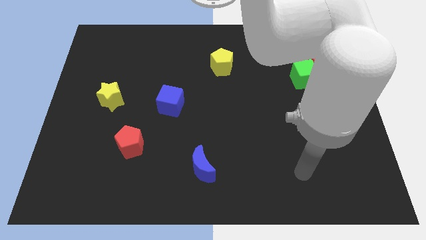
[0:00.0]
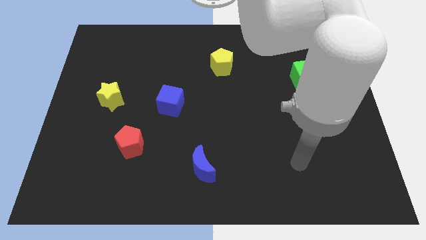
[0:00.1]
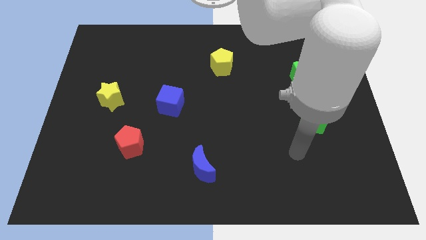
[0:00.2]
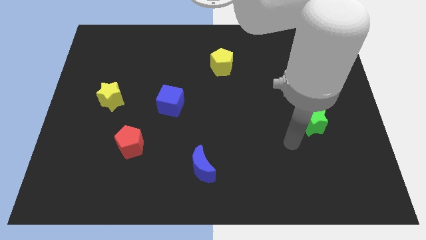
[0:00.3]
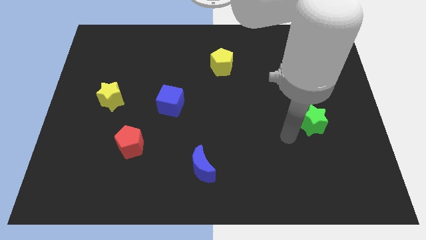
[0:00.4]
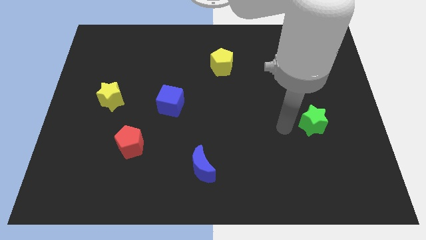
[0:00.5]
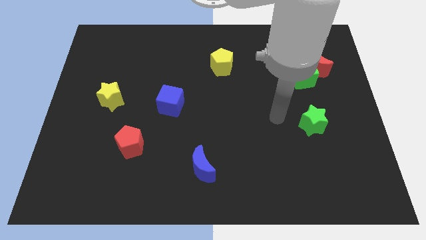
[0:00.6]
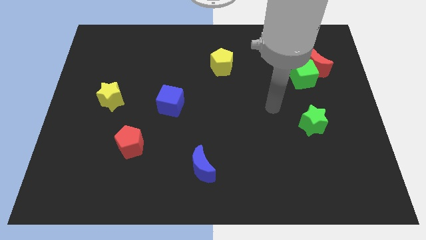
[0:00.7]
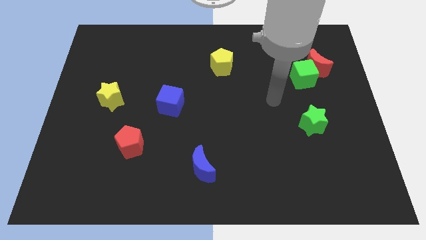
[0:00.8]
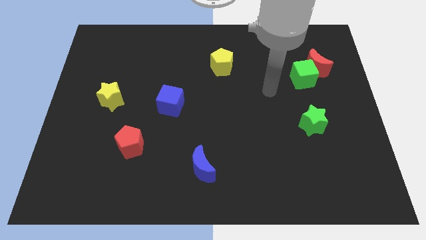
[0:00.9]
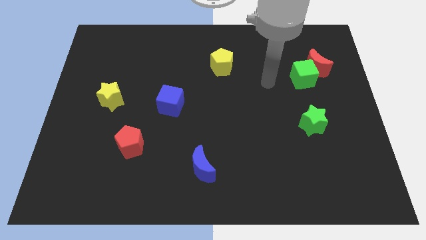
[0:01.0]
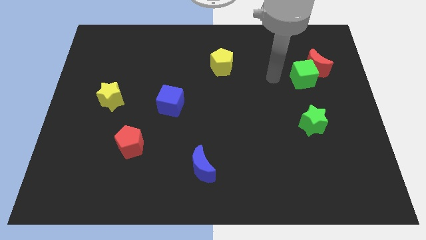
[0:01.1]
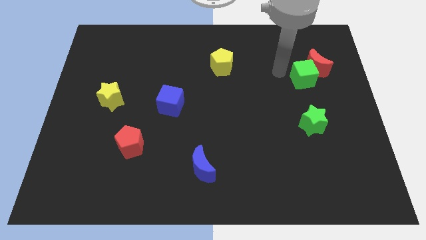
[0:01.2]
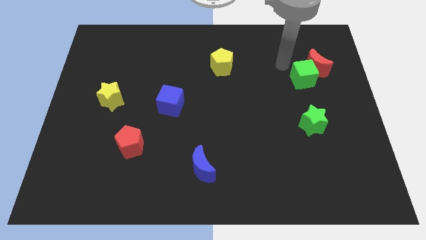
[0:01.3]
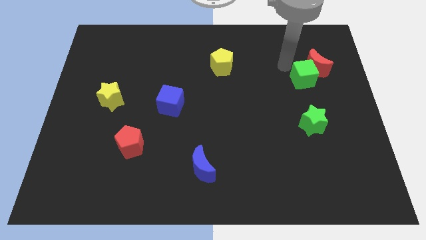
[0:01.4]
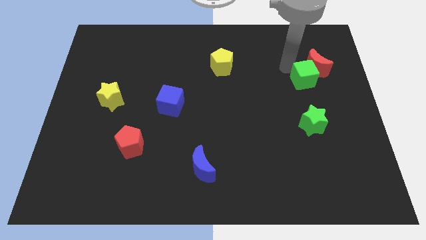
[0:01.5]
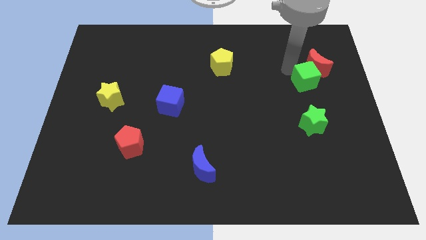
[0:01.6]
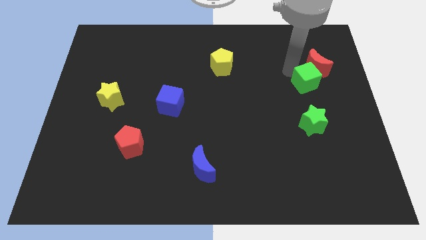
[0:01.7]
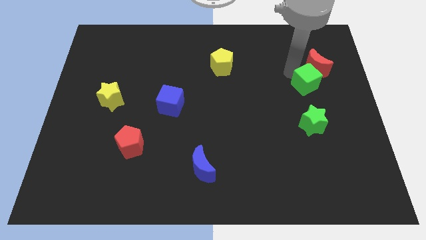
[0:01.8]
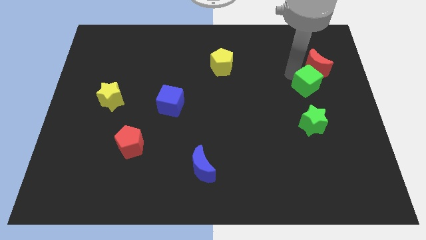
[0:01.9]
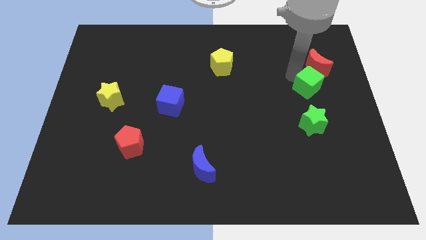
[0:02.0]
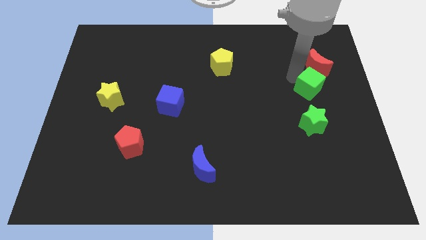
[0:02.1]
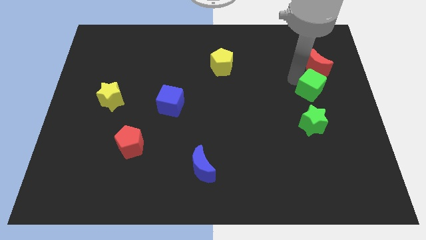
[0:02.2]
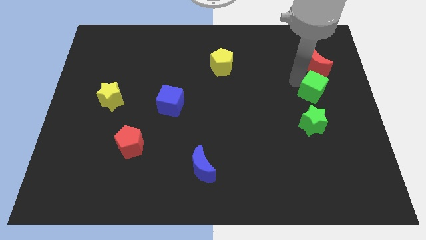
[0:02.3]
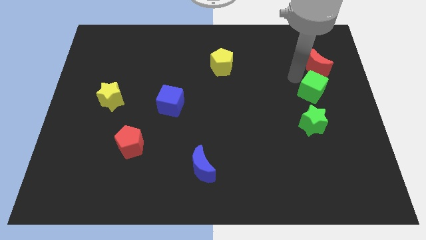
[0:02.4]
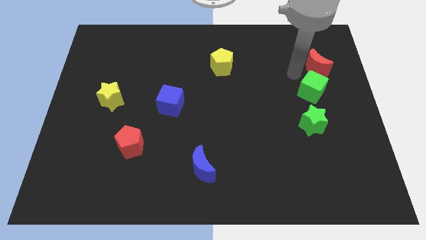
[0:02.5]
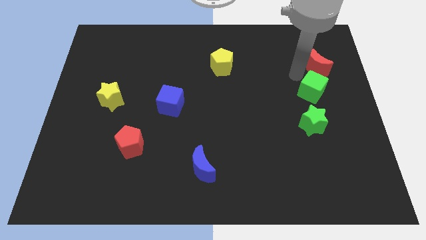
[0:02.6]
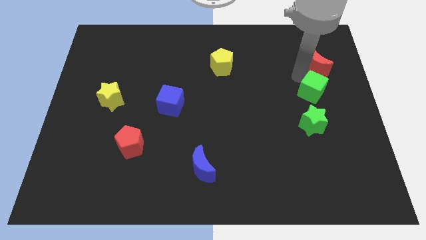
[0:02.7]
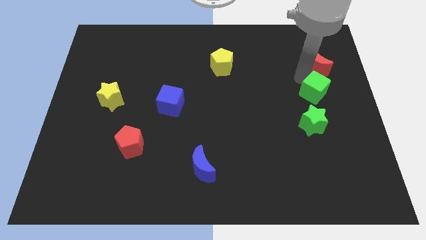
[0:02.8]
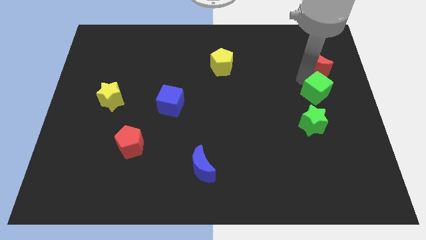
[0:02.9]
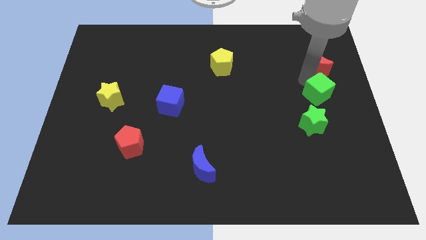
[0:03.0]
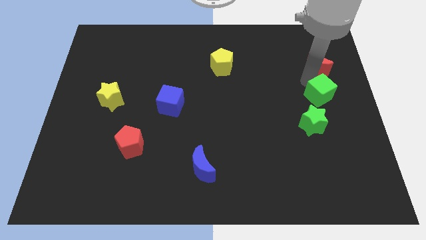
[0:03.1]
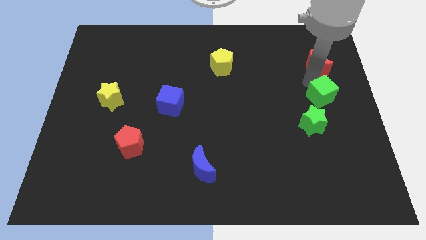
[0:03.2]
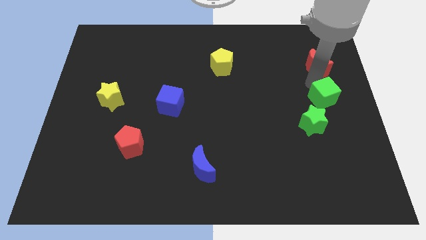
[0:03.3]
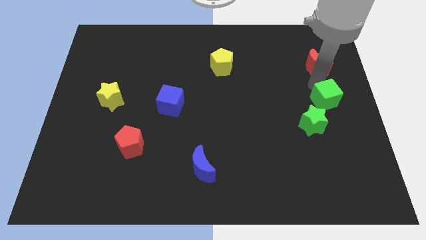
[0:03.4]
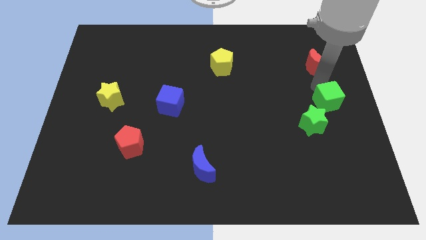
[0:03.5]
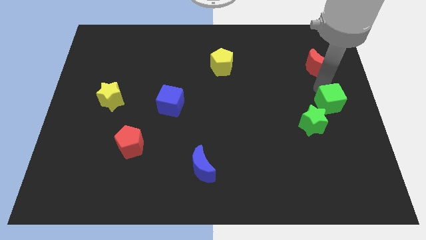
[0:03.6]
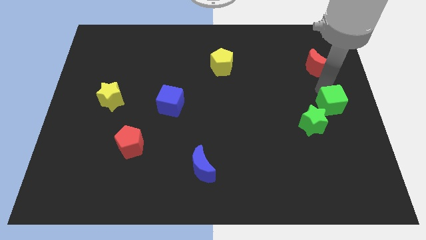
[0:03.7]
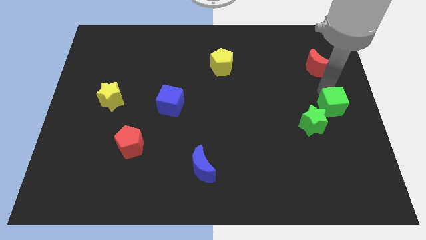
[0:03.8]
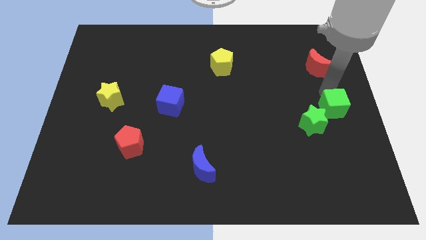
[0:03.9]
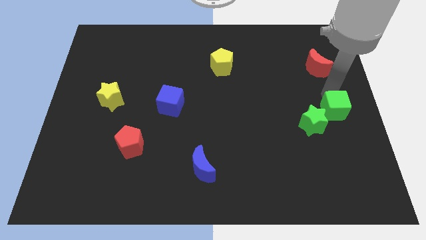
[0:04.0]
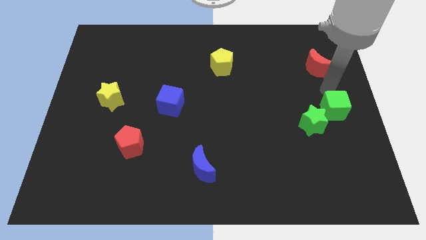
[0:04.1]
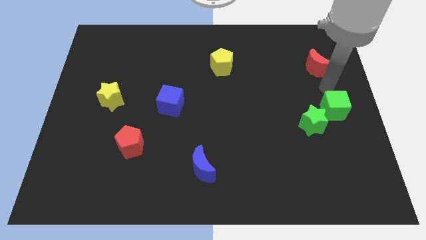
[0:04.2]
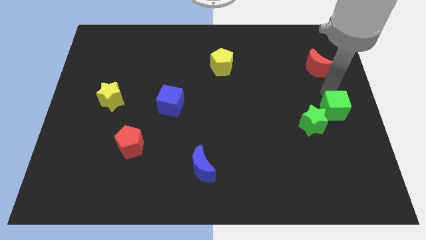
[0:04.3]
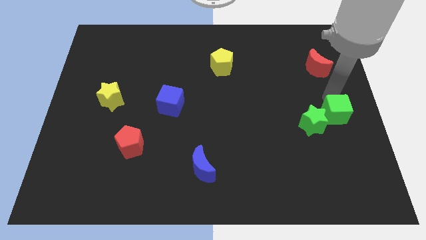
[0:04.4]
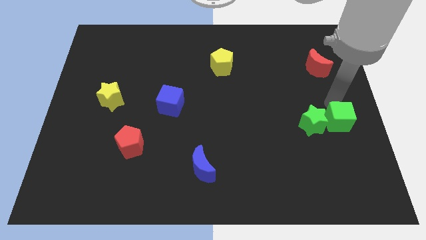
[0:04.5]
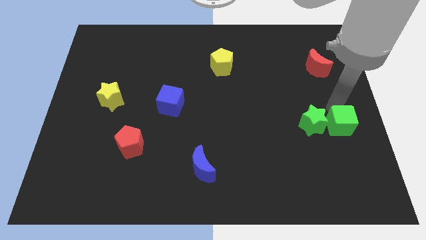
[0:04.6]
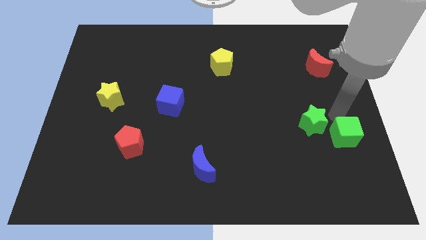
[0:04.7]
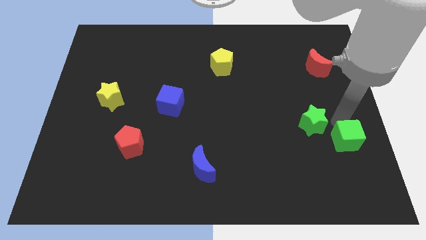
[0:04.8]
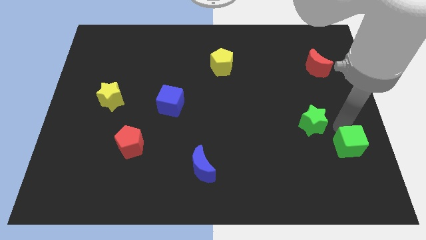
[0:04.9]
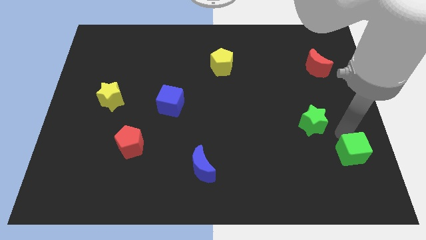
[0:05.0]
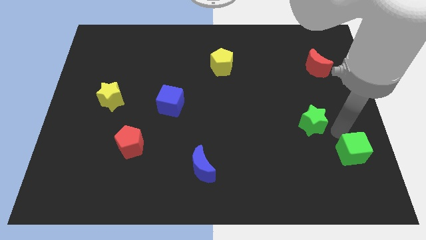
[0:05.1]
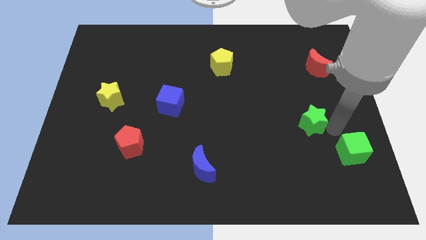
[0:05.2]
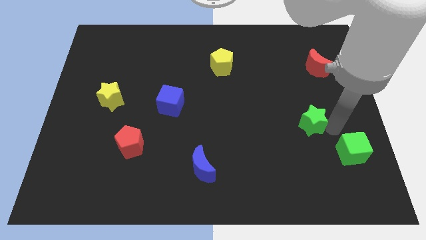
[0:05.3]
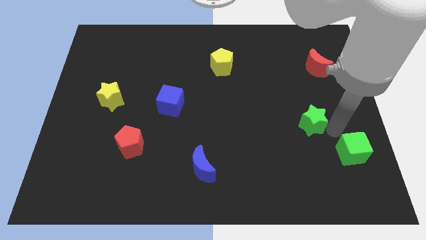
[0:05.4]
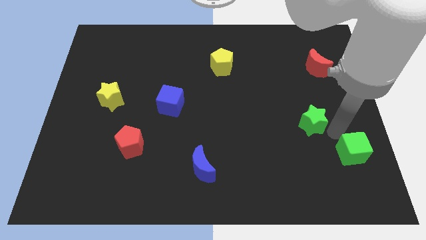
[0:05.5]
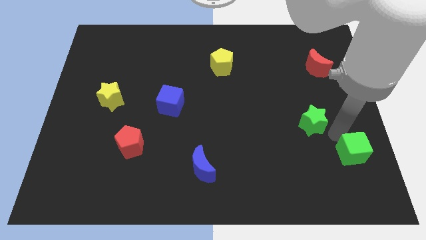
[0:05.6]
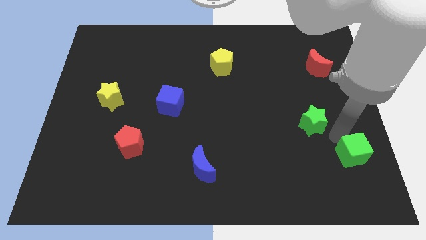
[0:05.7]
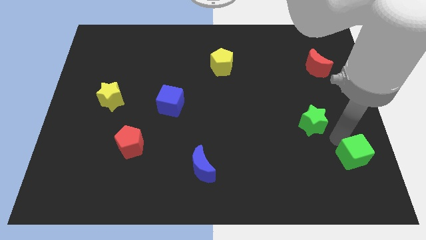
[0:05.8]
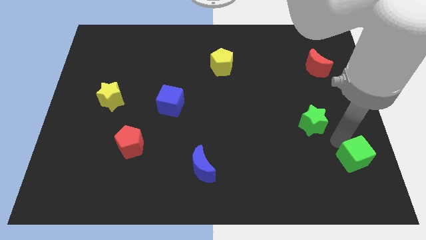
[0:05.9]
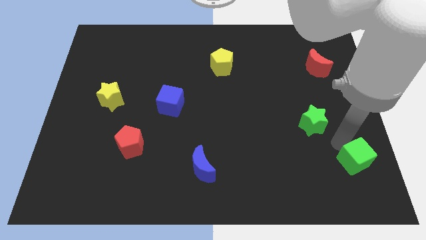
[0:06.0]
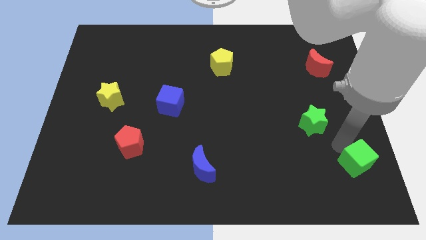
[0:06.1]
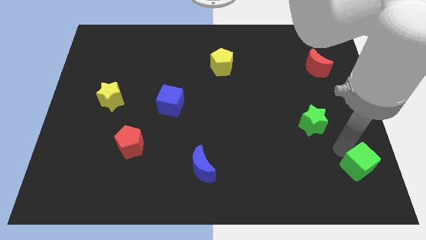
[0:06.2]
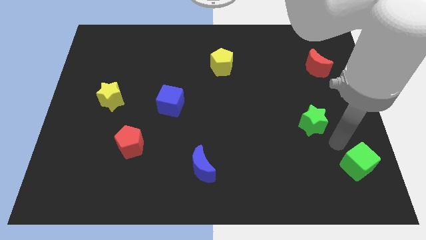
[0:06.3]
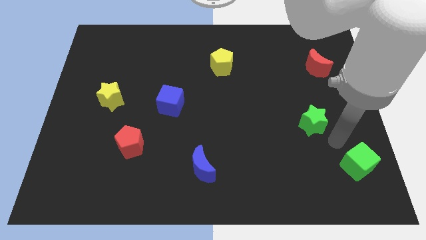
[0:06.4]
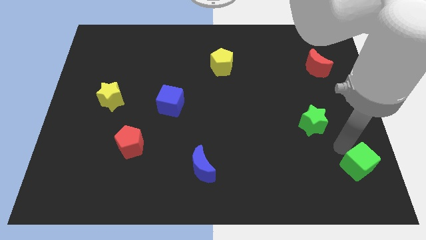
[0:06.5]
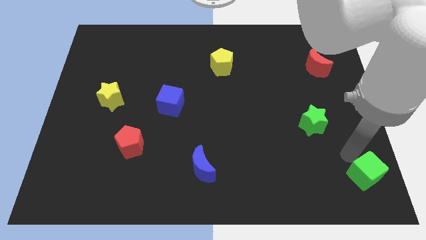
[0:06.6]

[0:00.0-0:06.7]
slide the green cube to the bottom right corner
